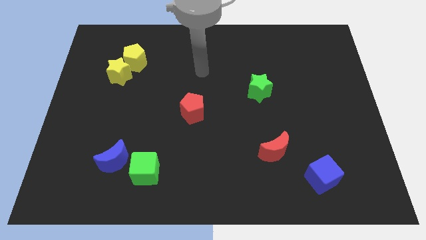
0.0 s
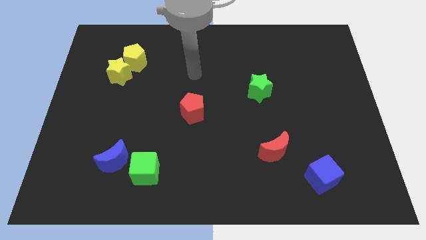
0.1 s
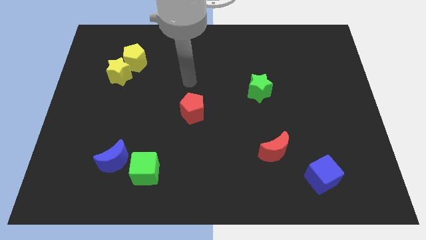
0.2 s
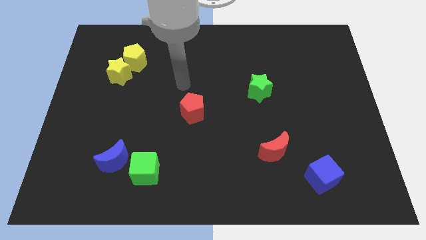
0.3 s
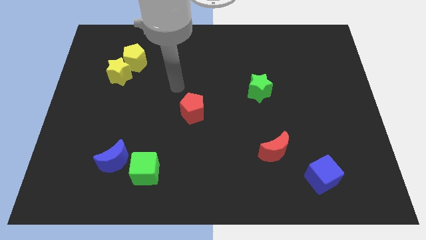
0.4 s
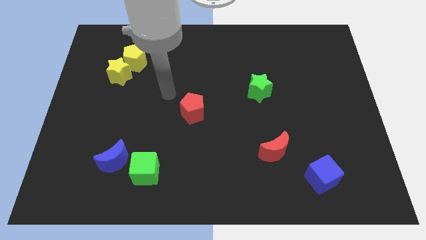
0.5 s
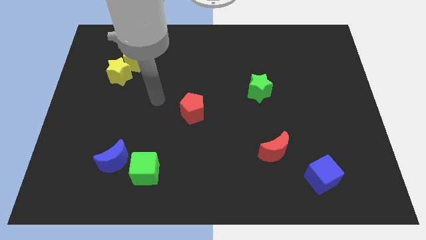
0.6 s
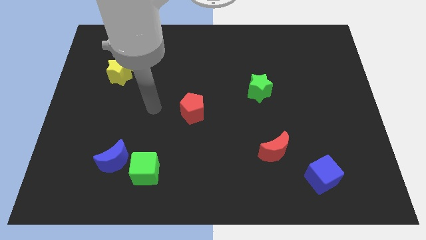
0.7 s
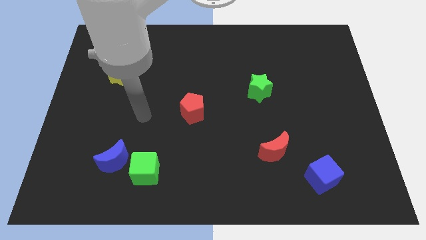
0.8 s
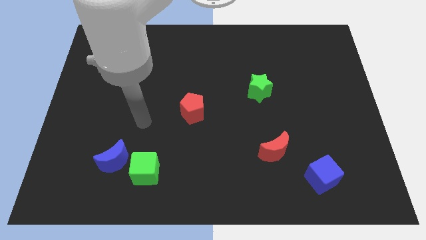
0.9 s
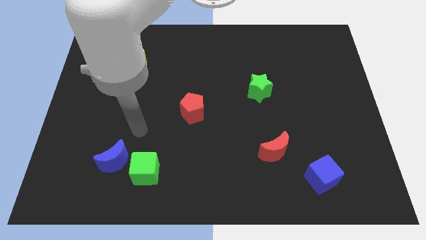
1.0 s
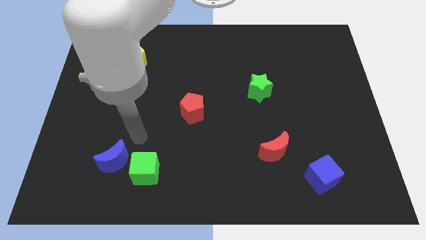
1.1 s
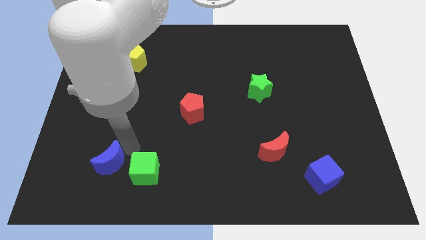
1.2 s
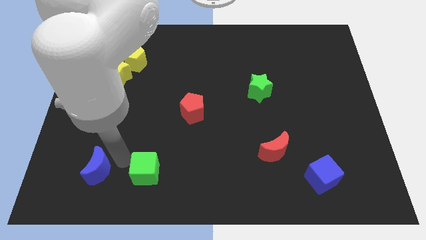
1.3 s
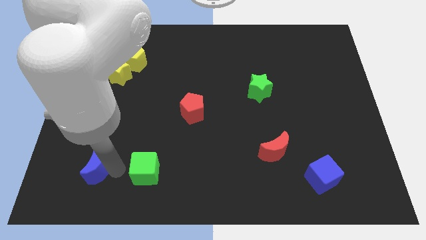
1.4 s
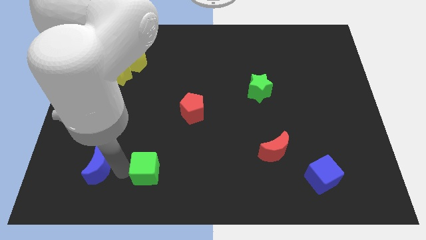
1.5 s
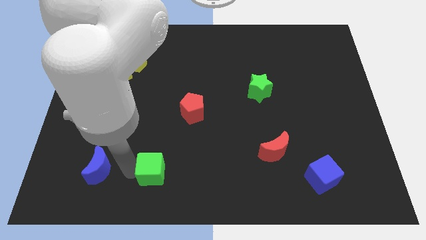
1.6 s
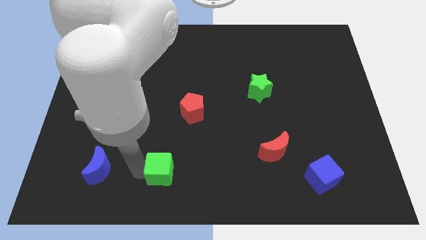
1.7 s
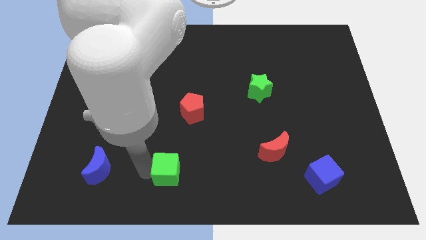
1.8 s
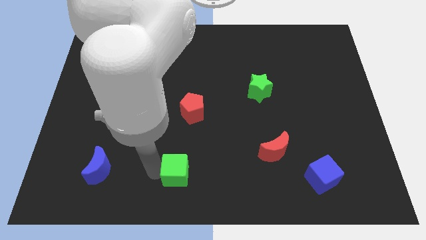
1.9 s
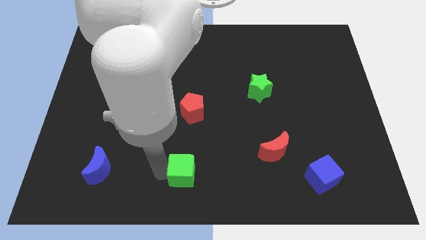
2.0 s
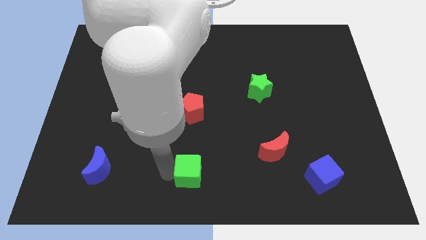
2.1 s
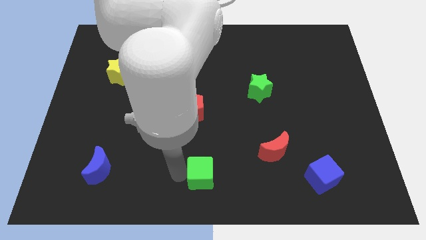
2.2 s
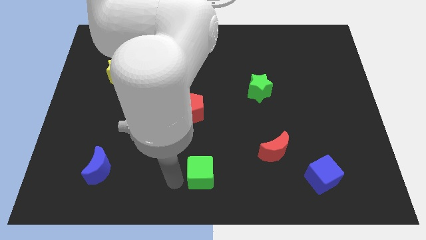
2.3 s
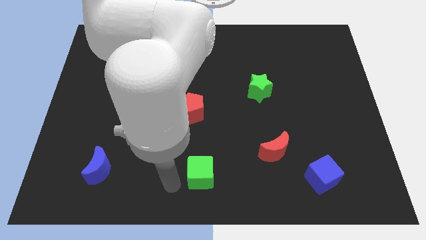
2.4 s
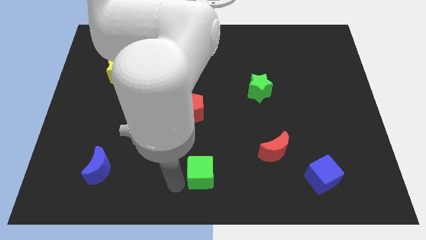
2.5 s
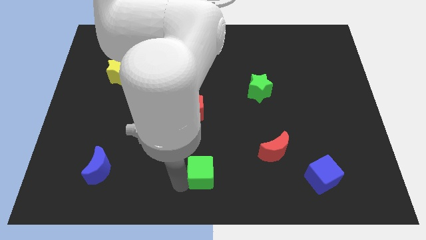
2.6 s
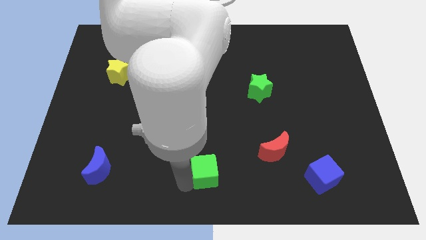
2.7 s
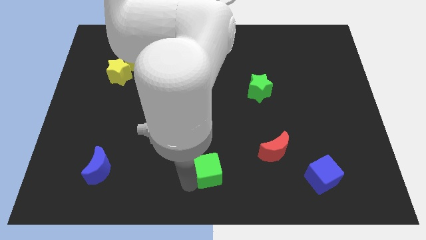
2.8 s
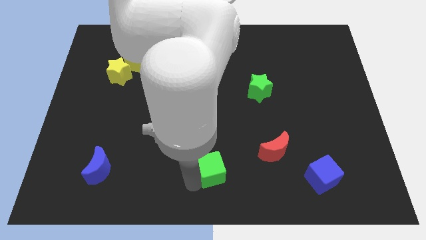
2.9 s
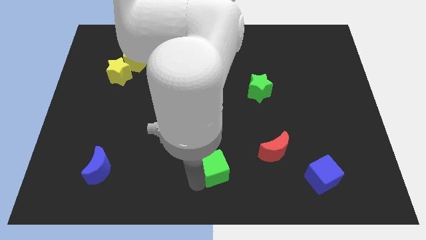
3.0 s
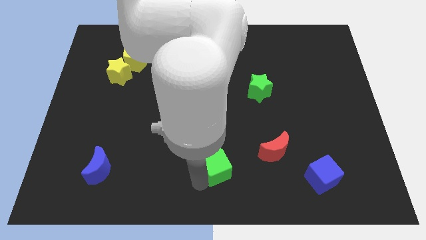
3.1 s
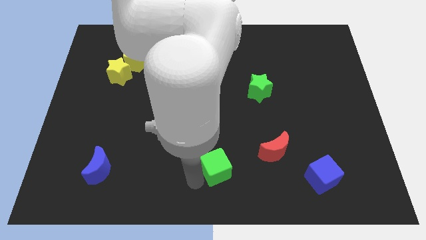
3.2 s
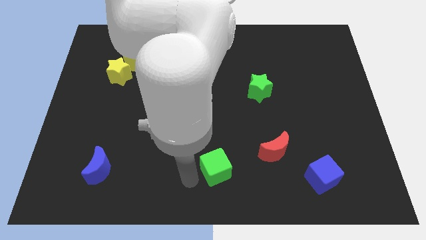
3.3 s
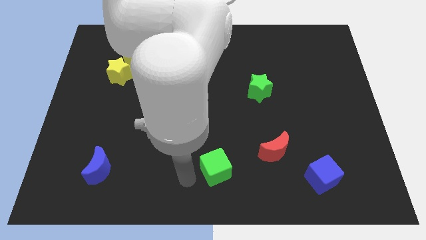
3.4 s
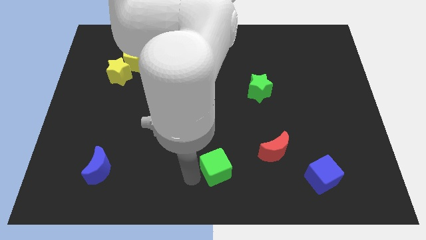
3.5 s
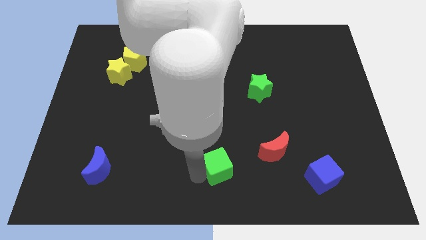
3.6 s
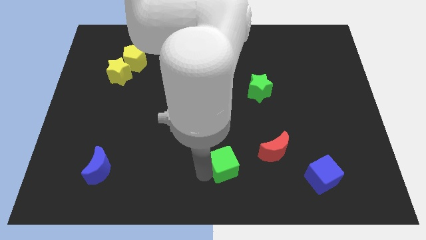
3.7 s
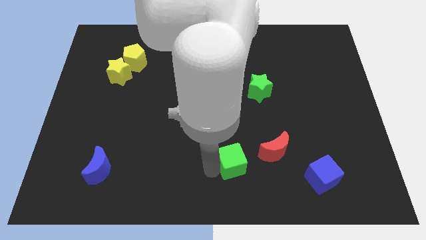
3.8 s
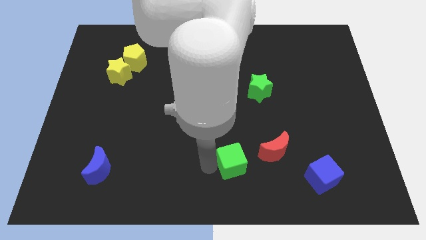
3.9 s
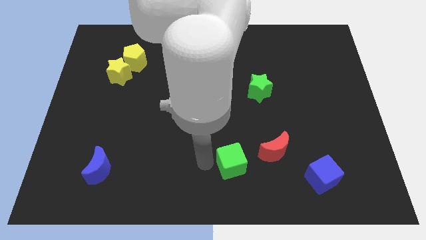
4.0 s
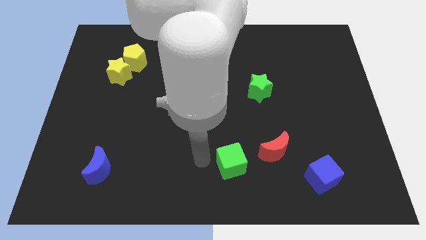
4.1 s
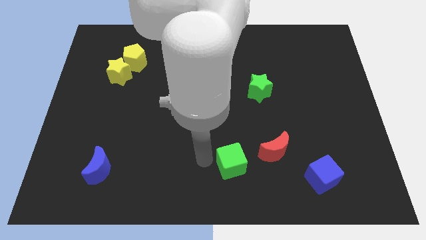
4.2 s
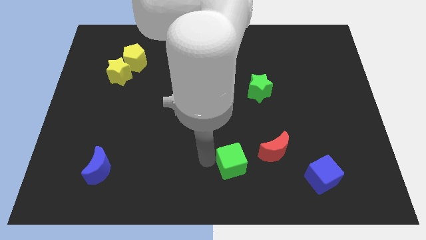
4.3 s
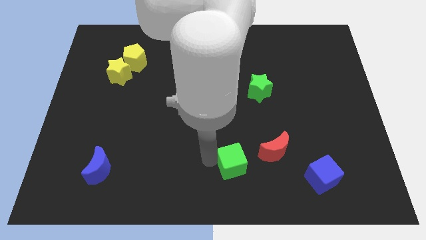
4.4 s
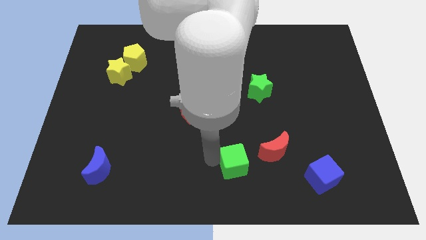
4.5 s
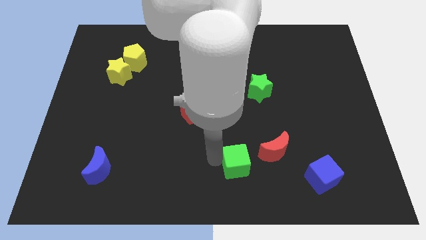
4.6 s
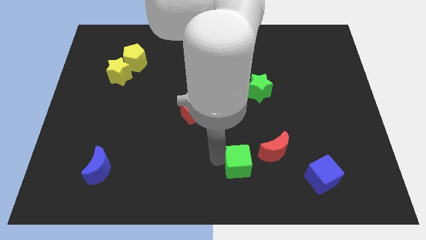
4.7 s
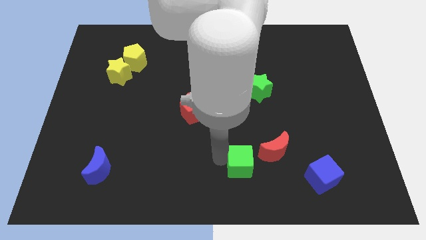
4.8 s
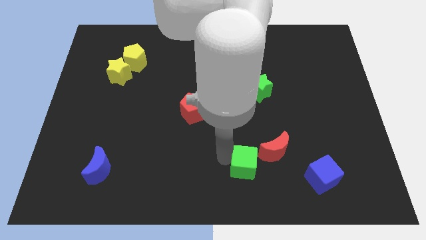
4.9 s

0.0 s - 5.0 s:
push the green cube right

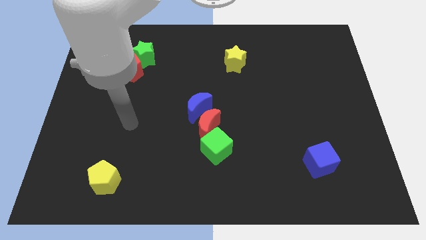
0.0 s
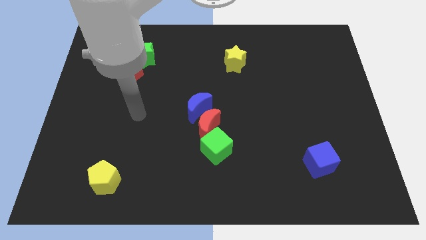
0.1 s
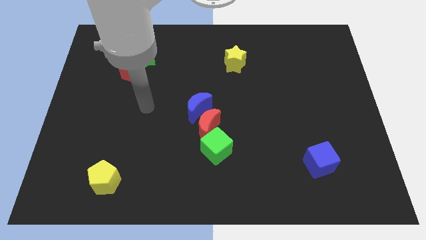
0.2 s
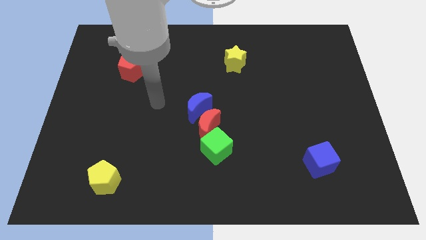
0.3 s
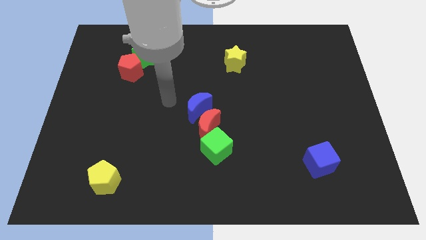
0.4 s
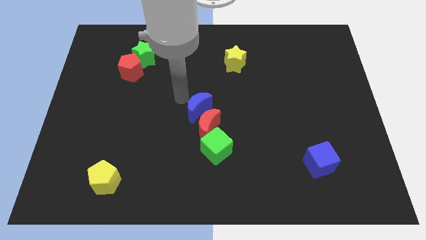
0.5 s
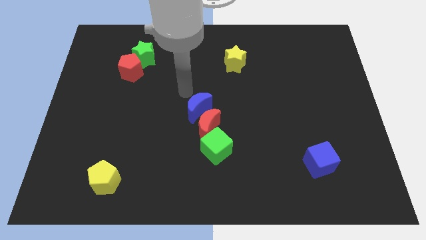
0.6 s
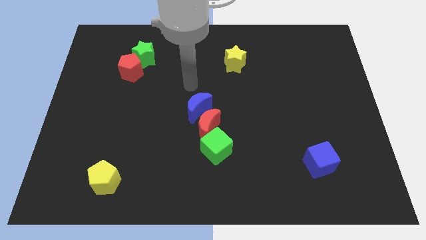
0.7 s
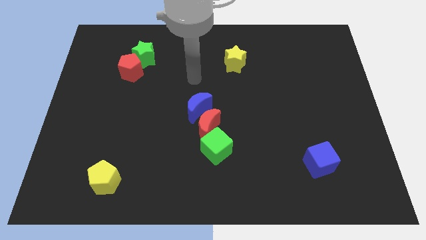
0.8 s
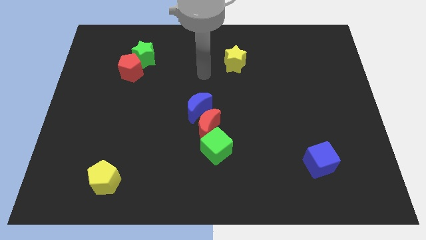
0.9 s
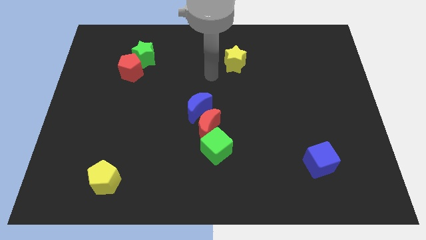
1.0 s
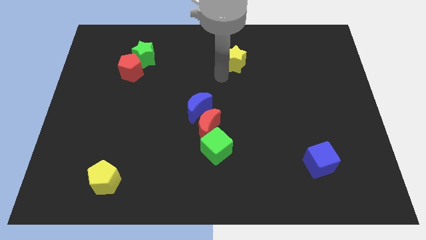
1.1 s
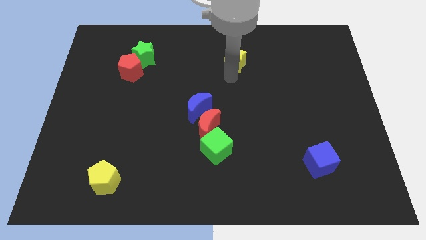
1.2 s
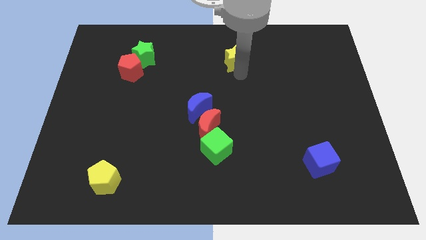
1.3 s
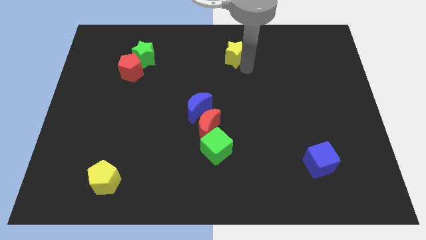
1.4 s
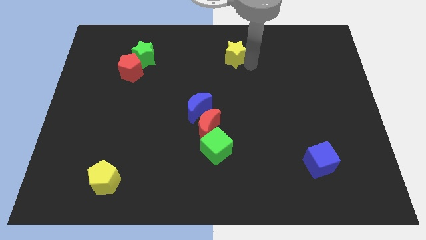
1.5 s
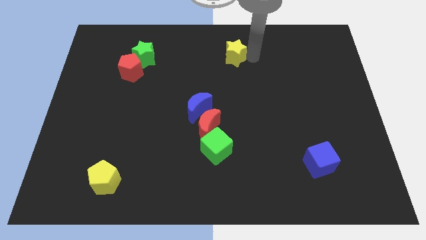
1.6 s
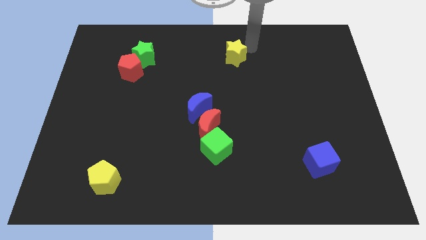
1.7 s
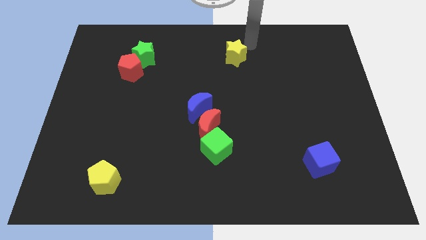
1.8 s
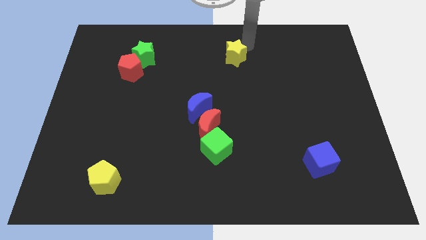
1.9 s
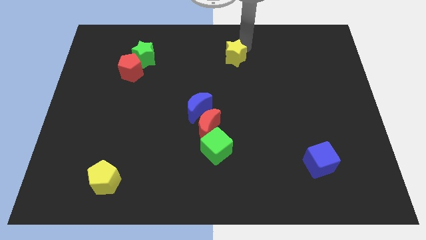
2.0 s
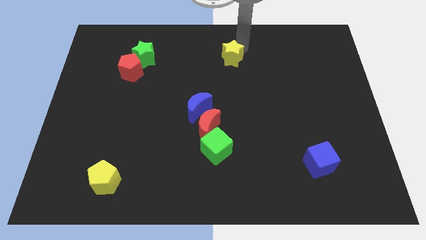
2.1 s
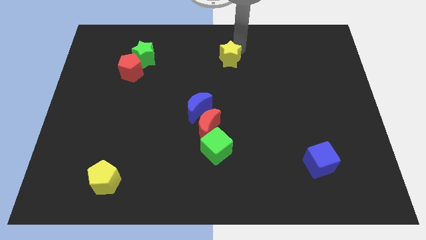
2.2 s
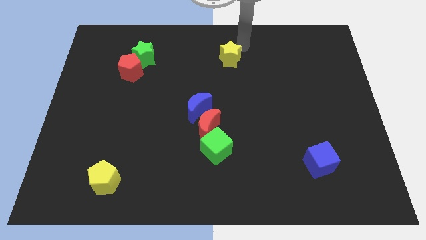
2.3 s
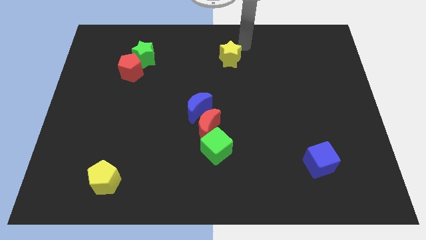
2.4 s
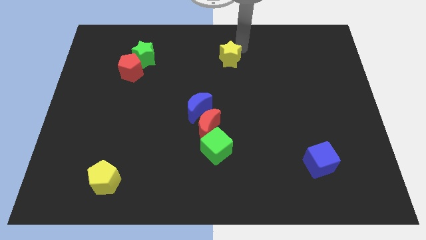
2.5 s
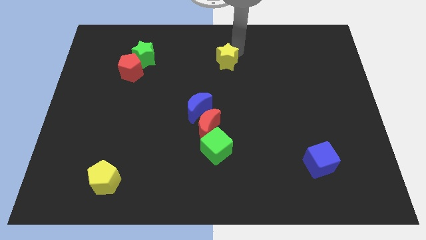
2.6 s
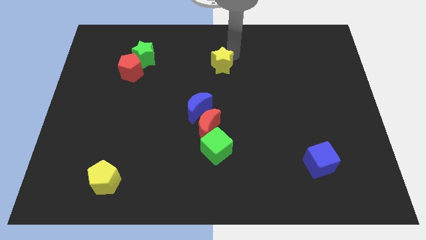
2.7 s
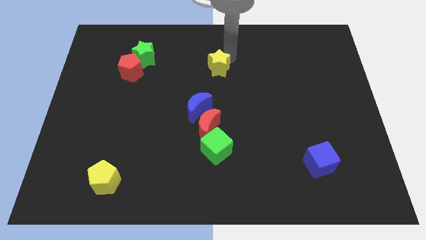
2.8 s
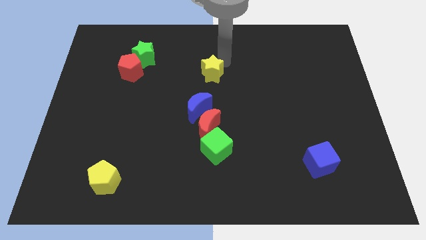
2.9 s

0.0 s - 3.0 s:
move the yellow star a little bit down and then to the left

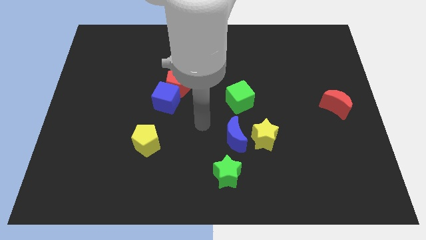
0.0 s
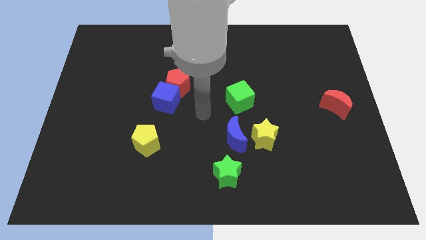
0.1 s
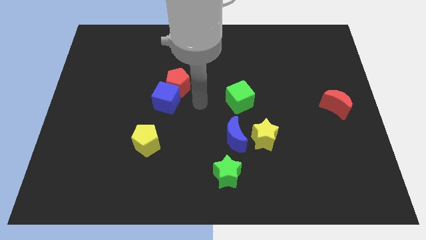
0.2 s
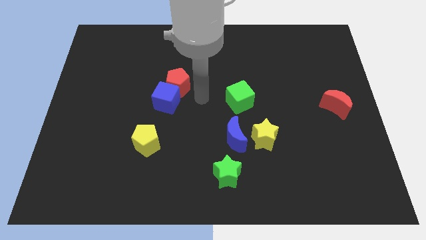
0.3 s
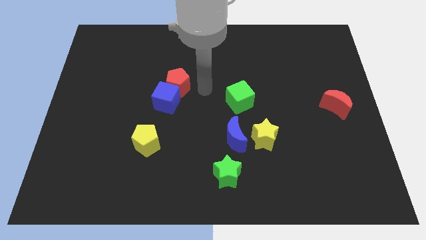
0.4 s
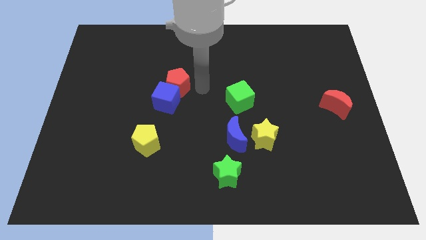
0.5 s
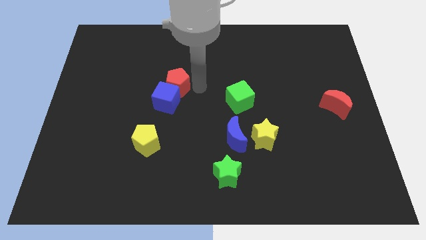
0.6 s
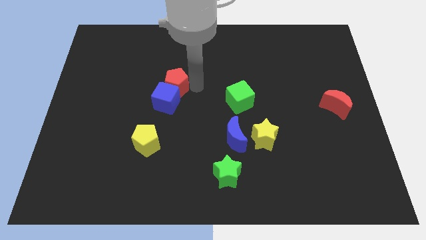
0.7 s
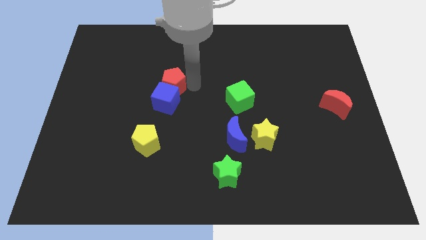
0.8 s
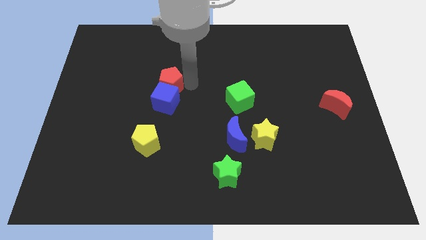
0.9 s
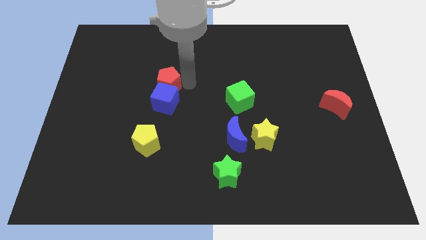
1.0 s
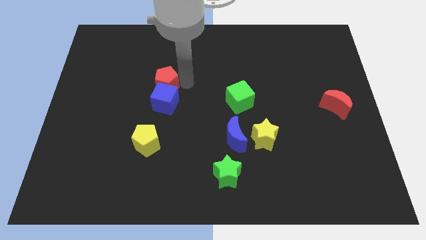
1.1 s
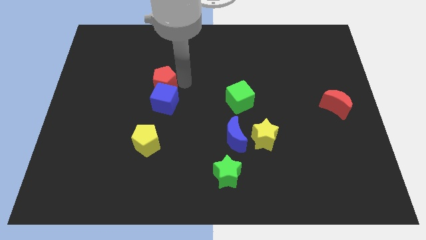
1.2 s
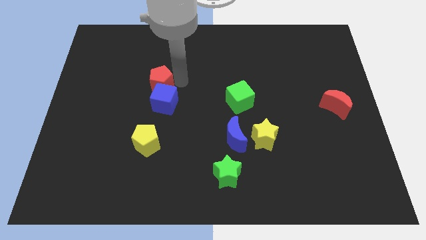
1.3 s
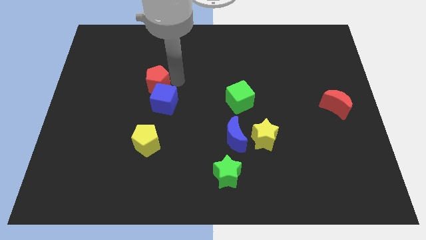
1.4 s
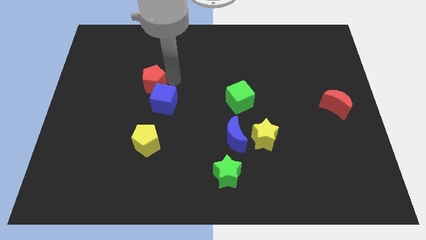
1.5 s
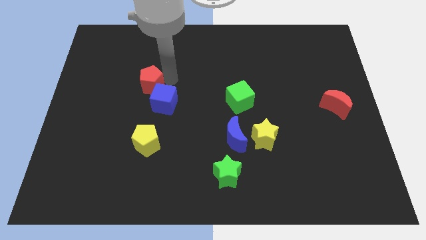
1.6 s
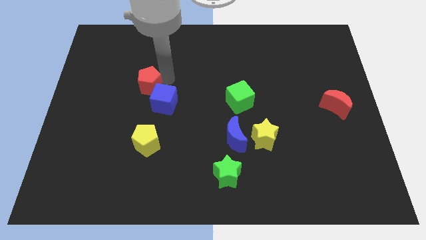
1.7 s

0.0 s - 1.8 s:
push the red pentagon to the left somewhat
